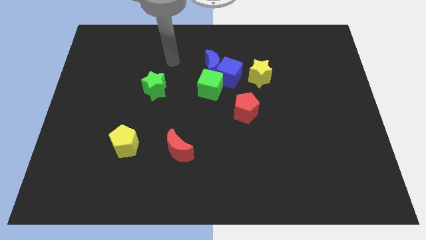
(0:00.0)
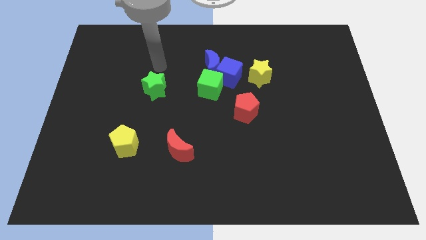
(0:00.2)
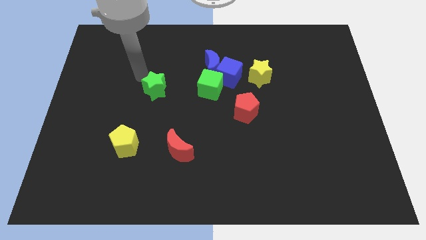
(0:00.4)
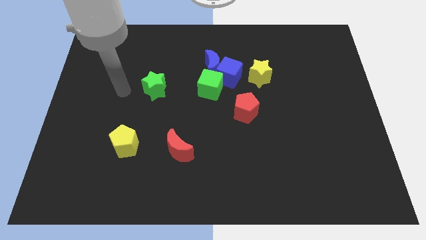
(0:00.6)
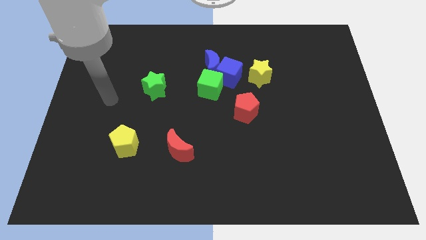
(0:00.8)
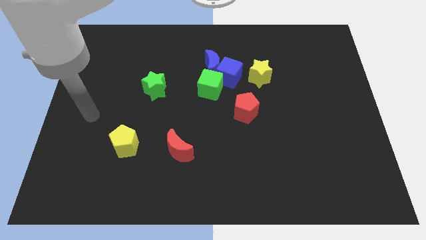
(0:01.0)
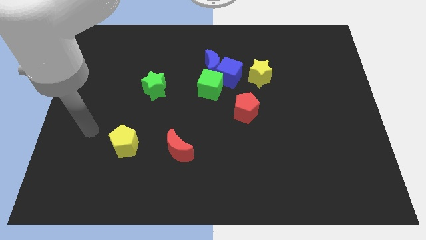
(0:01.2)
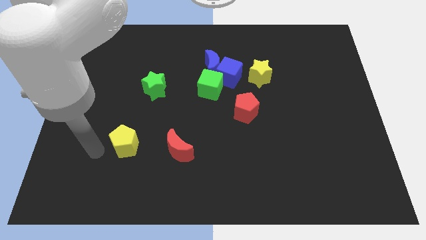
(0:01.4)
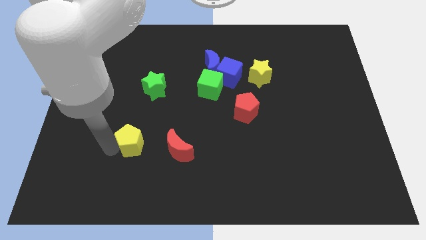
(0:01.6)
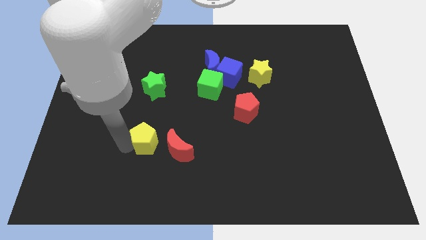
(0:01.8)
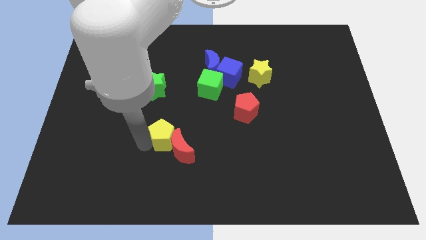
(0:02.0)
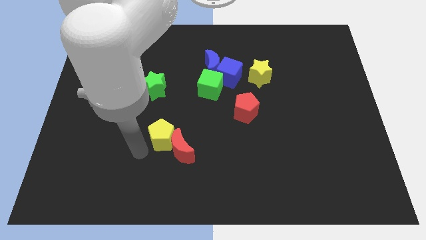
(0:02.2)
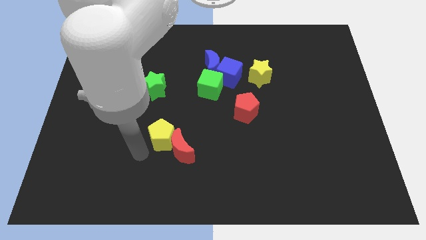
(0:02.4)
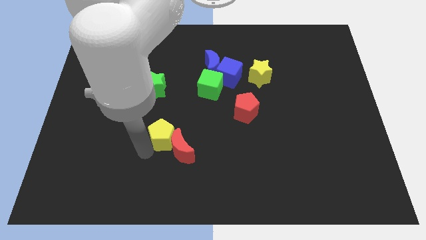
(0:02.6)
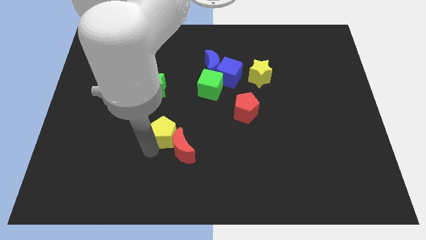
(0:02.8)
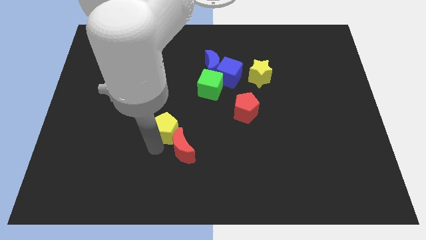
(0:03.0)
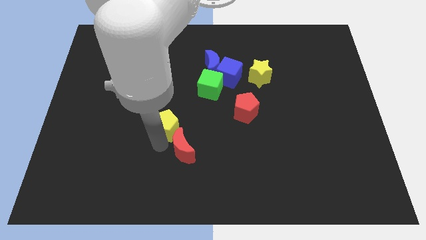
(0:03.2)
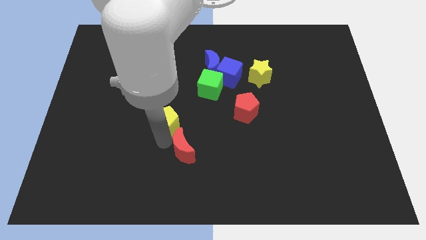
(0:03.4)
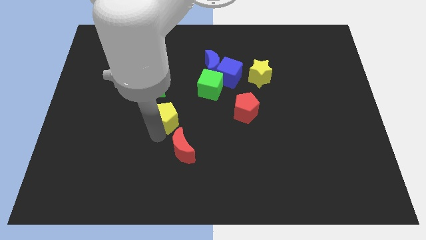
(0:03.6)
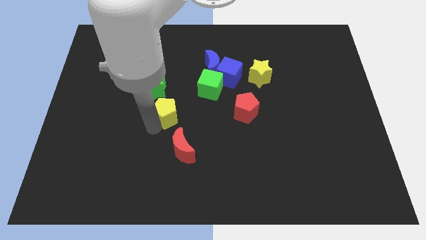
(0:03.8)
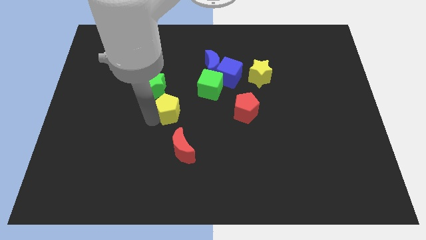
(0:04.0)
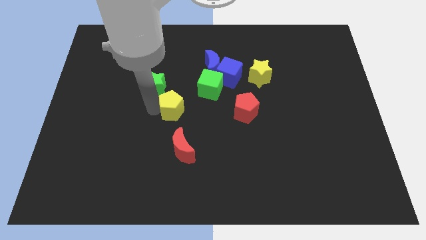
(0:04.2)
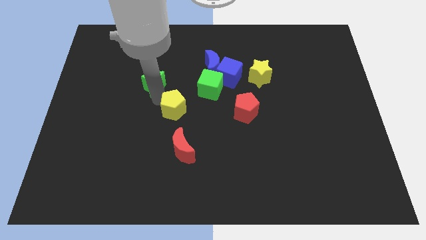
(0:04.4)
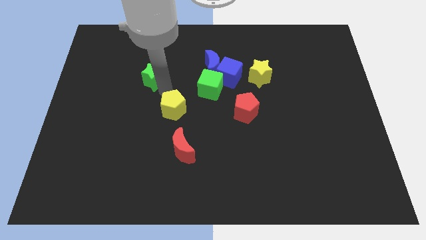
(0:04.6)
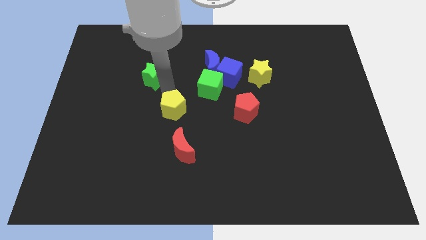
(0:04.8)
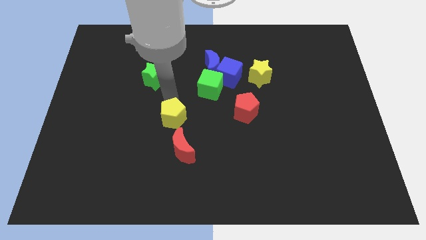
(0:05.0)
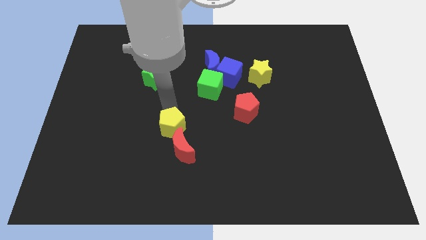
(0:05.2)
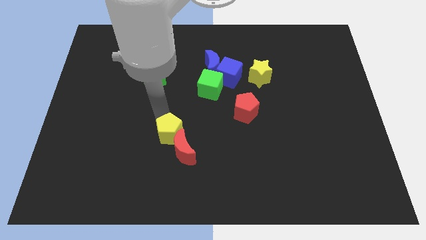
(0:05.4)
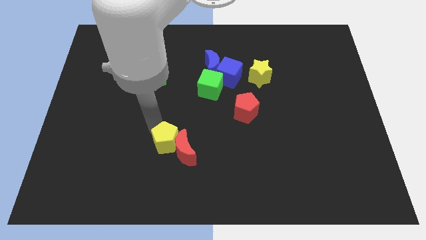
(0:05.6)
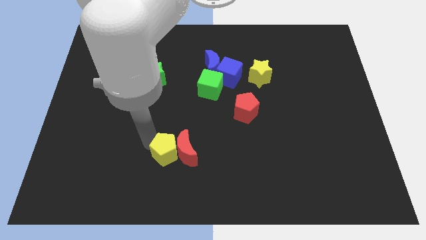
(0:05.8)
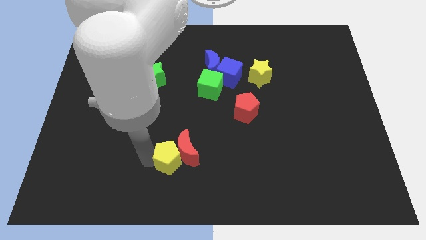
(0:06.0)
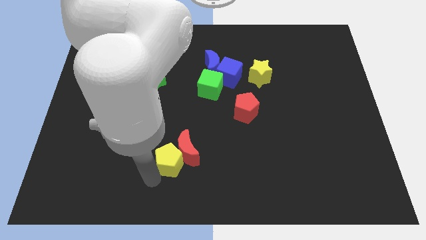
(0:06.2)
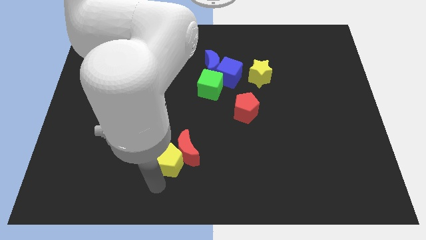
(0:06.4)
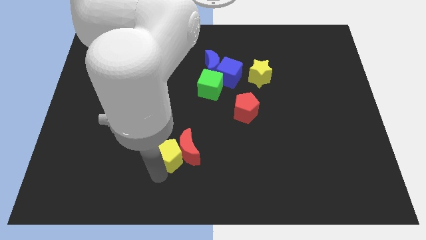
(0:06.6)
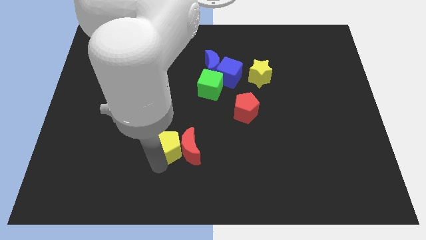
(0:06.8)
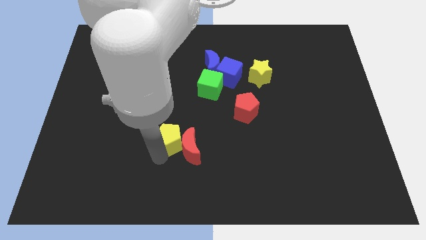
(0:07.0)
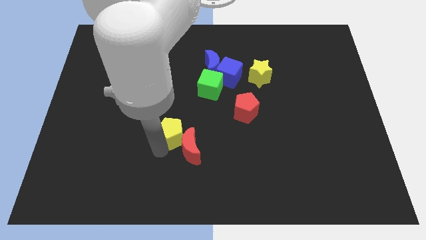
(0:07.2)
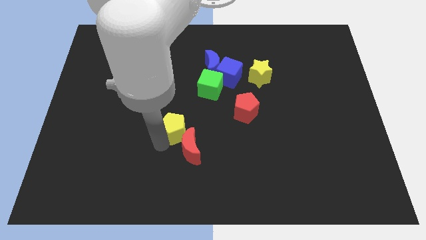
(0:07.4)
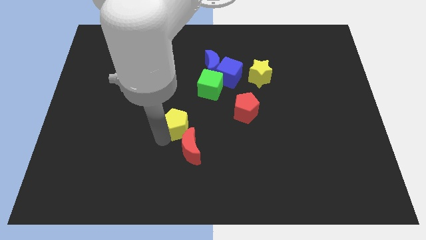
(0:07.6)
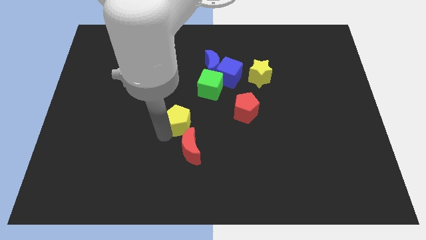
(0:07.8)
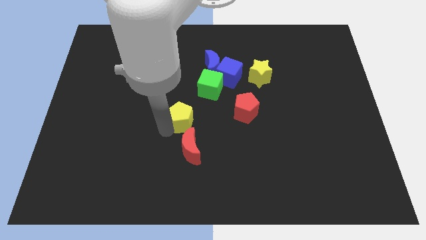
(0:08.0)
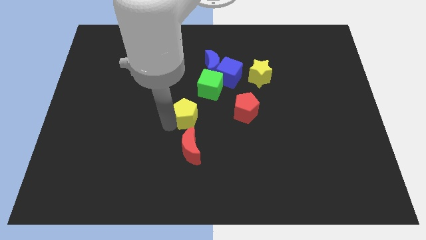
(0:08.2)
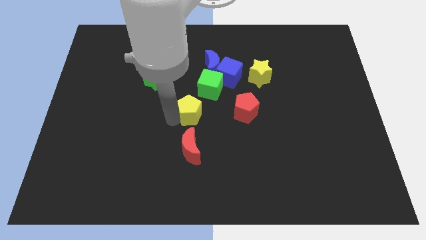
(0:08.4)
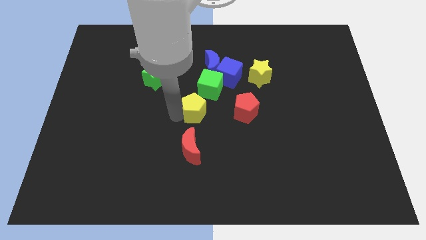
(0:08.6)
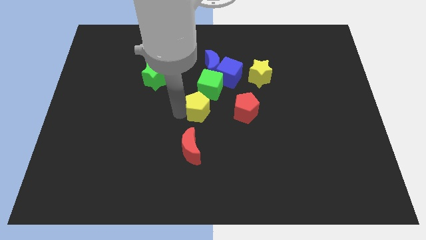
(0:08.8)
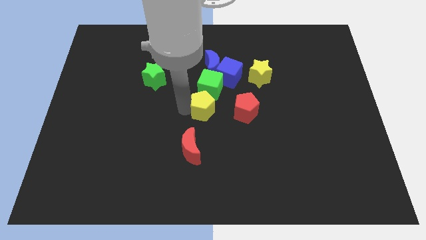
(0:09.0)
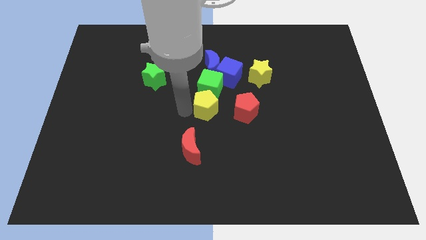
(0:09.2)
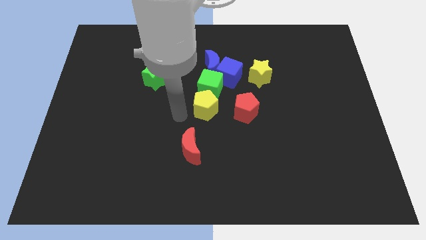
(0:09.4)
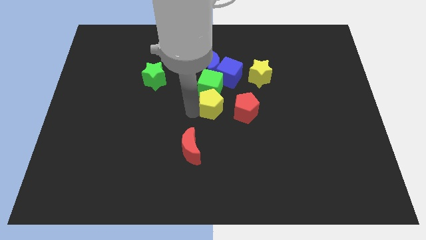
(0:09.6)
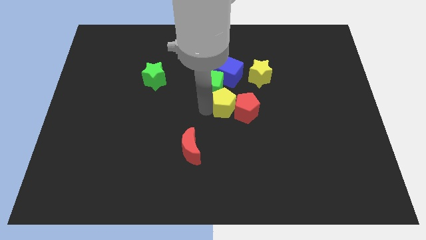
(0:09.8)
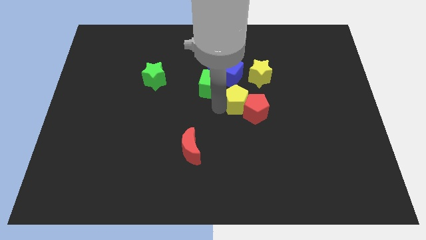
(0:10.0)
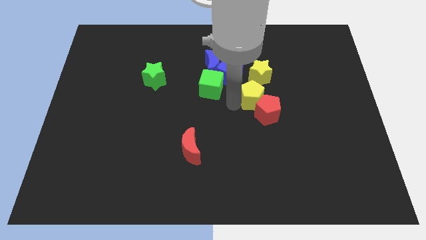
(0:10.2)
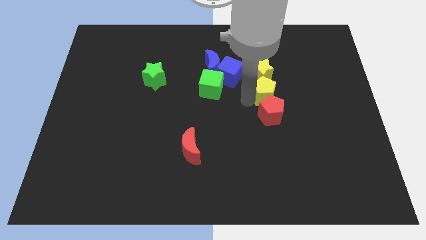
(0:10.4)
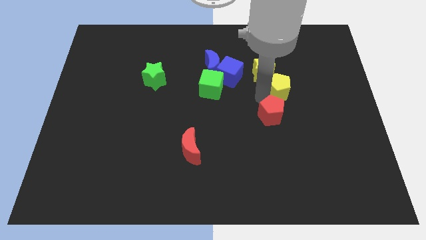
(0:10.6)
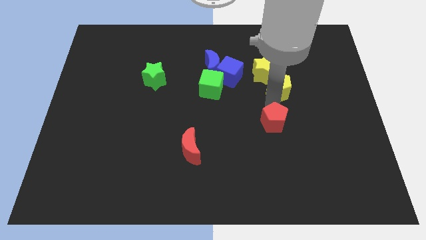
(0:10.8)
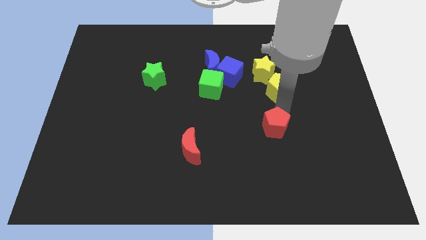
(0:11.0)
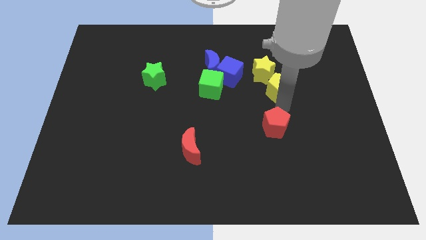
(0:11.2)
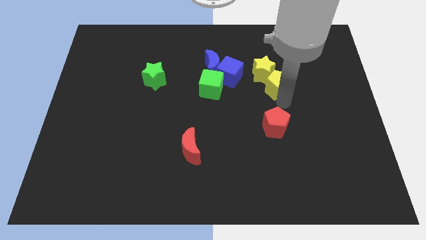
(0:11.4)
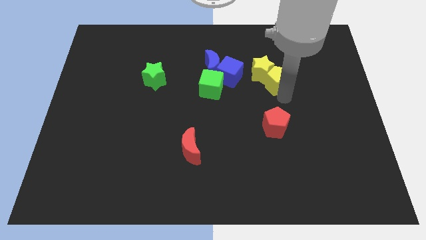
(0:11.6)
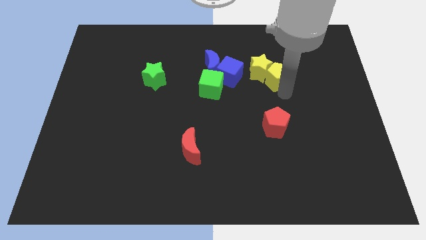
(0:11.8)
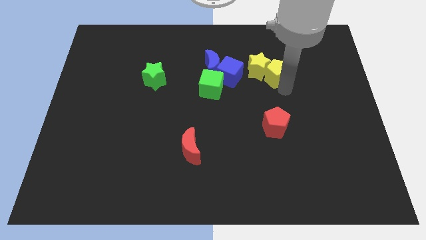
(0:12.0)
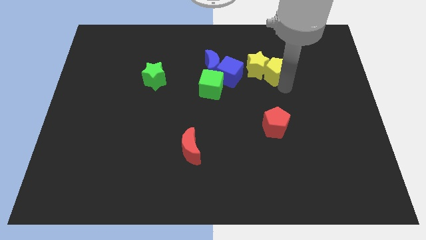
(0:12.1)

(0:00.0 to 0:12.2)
move the yellow pentagon just right of the blue moon

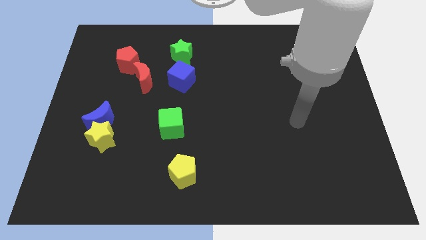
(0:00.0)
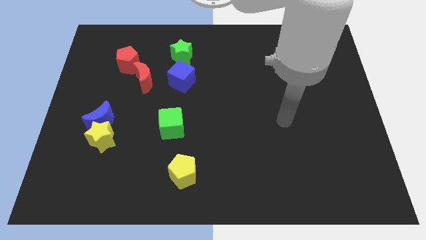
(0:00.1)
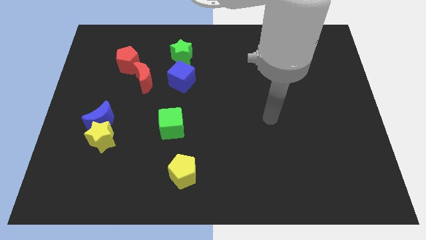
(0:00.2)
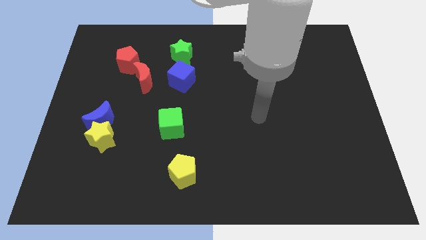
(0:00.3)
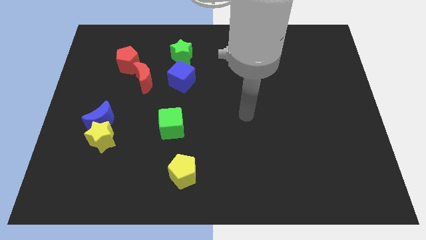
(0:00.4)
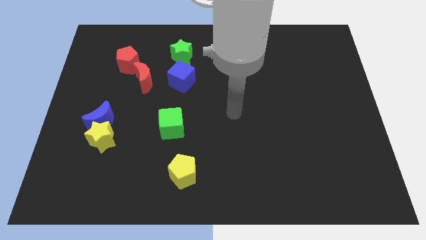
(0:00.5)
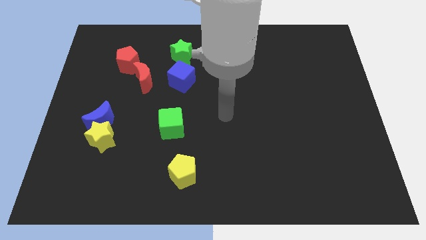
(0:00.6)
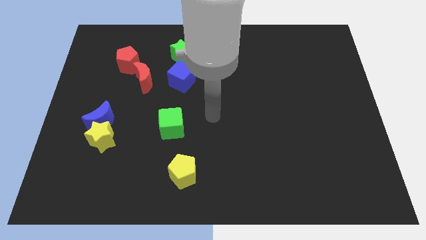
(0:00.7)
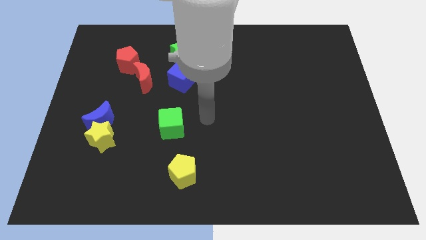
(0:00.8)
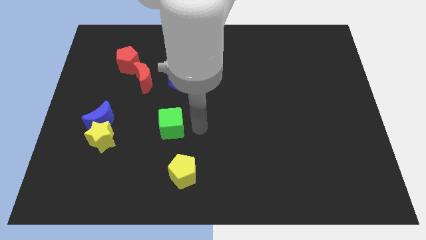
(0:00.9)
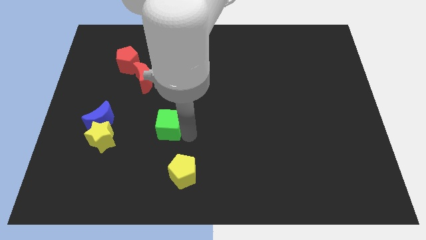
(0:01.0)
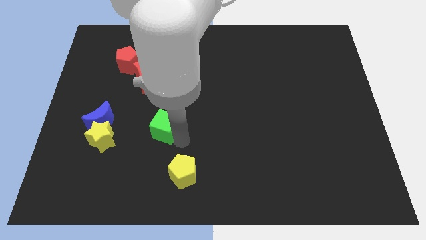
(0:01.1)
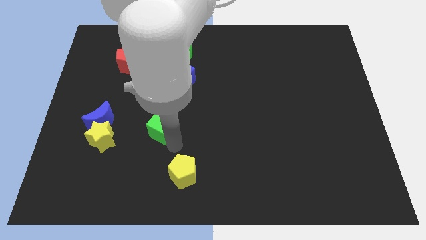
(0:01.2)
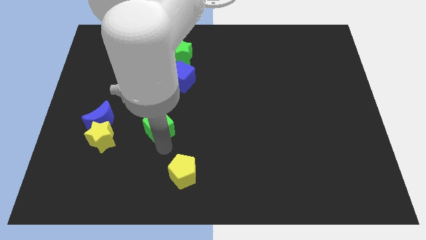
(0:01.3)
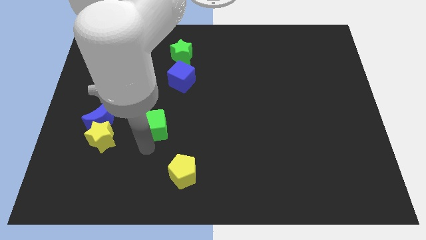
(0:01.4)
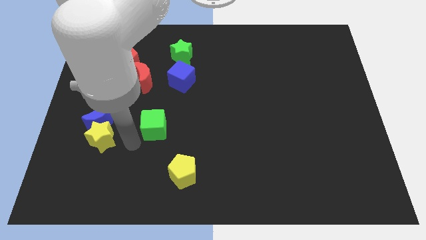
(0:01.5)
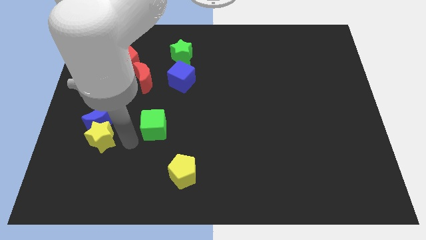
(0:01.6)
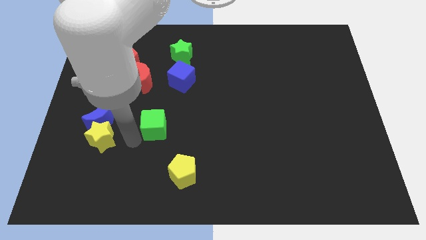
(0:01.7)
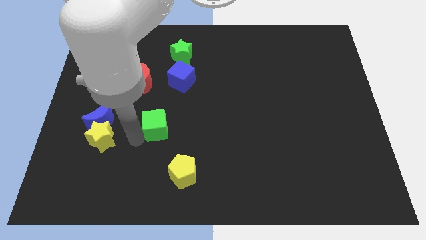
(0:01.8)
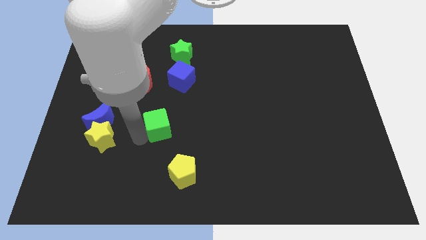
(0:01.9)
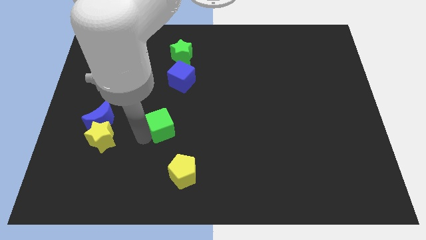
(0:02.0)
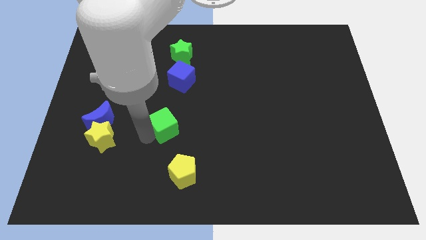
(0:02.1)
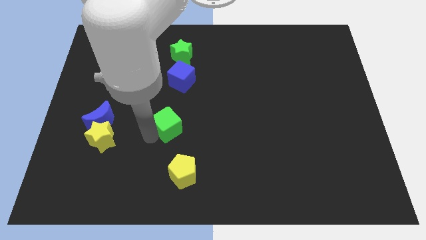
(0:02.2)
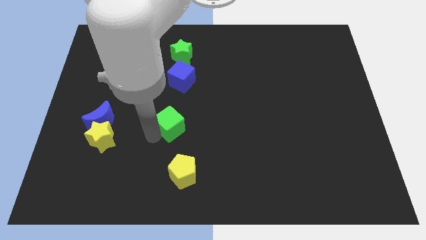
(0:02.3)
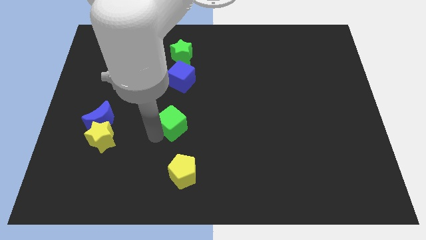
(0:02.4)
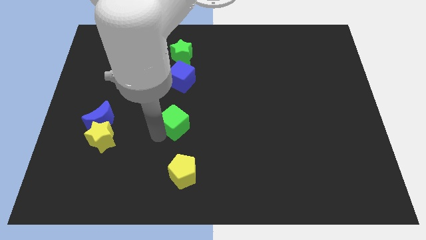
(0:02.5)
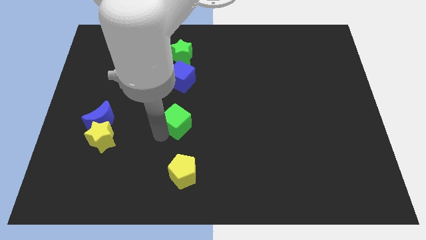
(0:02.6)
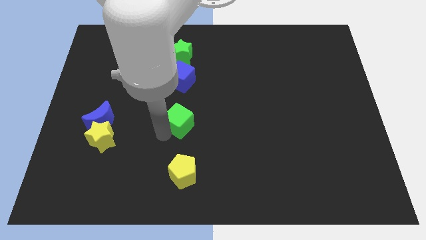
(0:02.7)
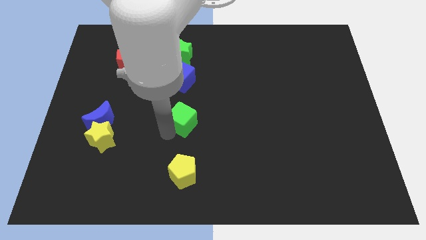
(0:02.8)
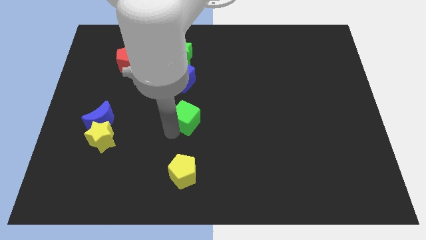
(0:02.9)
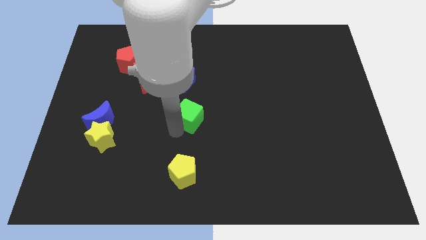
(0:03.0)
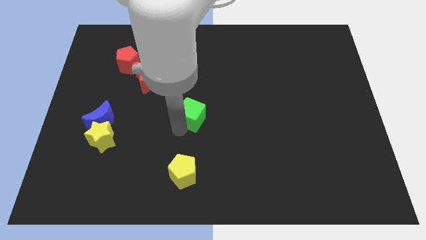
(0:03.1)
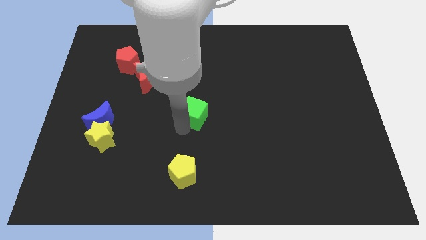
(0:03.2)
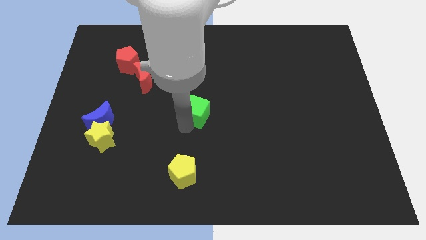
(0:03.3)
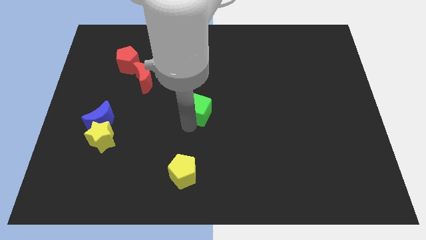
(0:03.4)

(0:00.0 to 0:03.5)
put the green cube diagonally down and to the right of the blue cube
